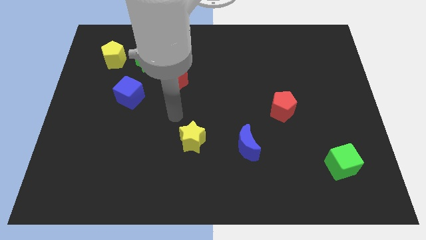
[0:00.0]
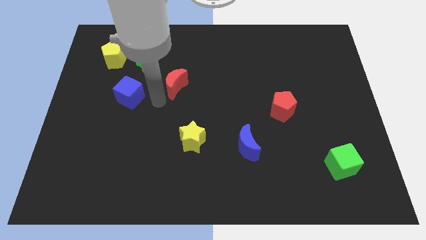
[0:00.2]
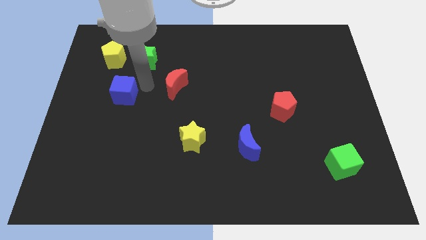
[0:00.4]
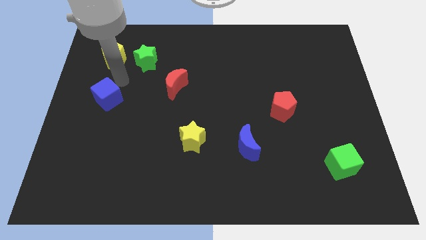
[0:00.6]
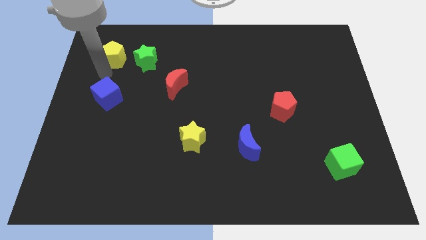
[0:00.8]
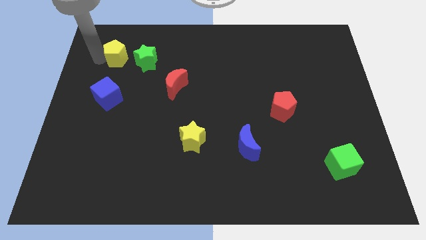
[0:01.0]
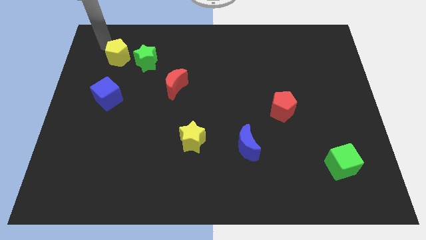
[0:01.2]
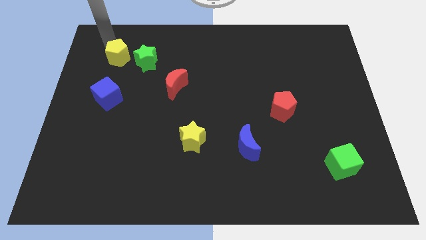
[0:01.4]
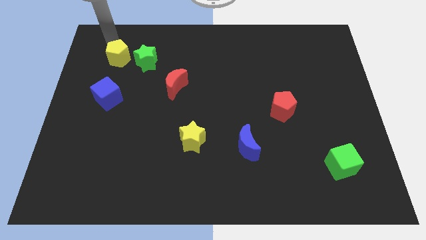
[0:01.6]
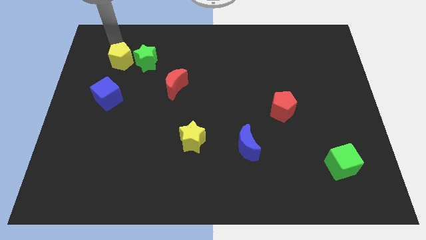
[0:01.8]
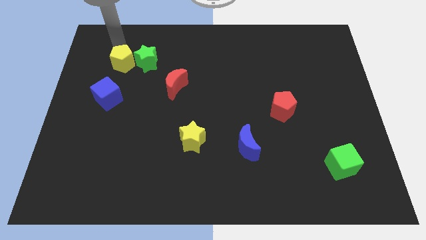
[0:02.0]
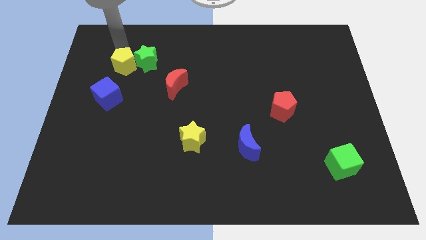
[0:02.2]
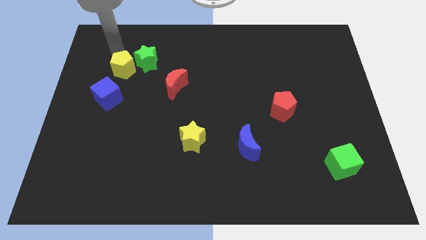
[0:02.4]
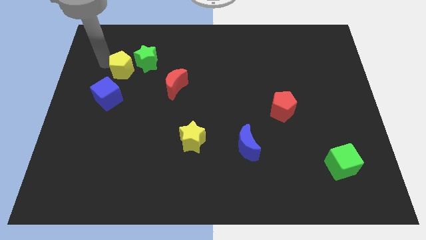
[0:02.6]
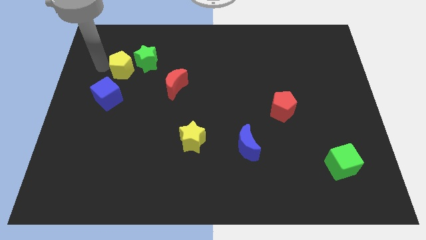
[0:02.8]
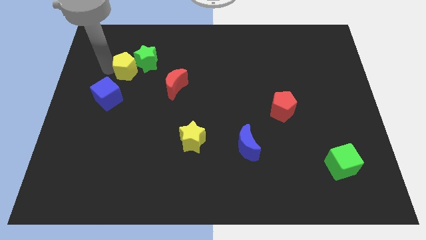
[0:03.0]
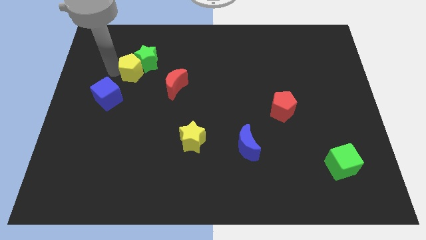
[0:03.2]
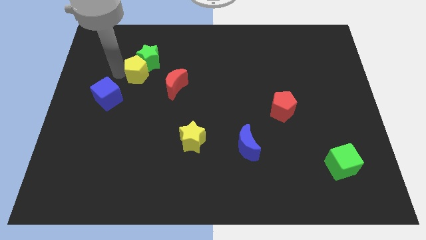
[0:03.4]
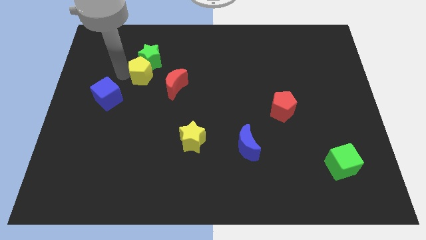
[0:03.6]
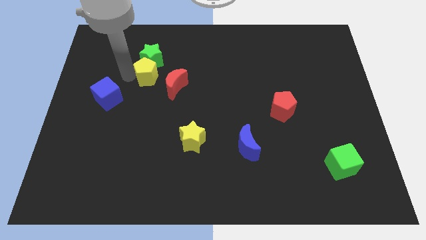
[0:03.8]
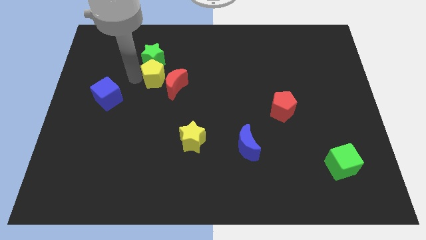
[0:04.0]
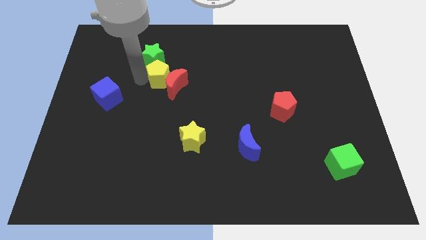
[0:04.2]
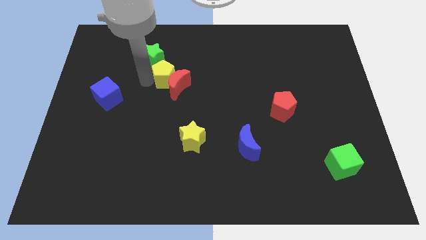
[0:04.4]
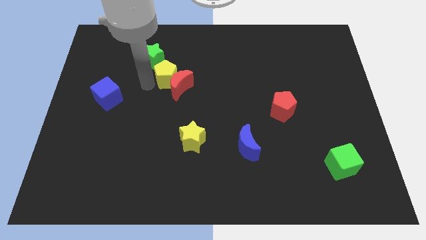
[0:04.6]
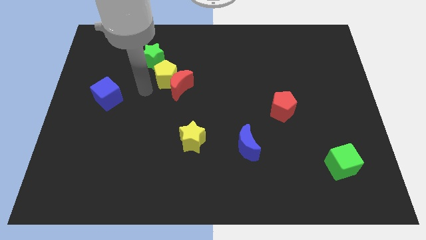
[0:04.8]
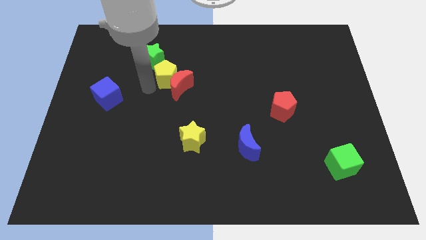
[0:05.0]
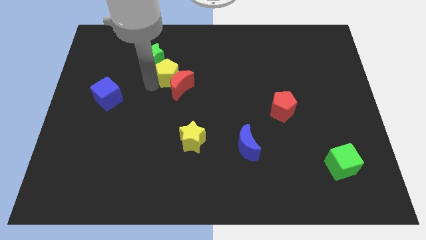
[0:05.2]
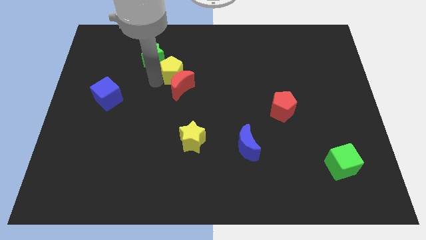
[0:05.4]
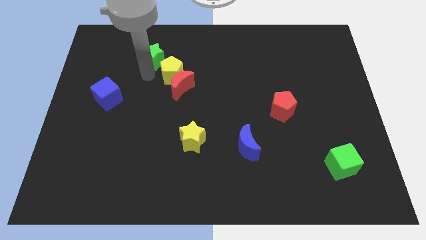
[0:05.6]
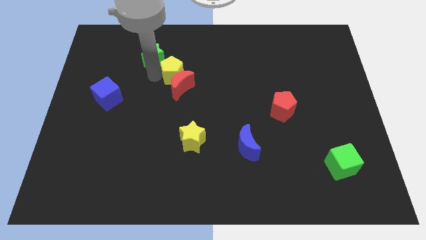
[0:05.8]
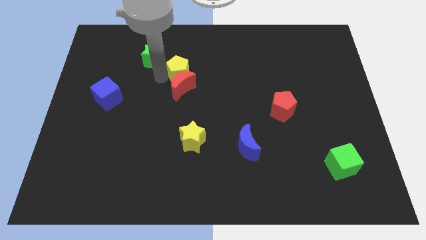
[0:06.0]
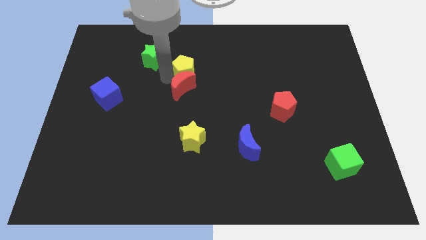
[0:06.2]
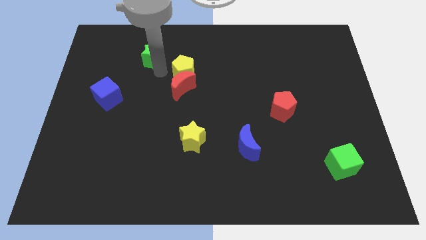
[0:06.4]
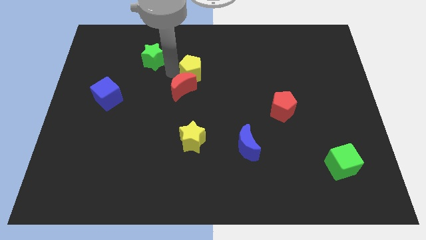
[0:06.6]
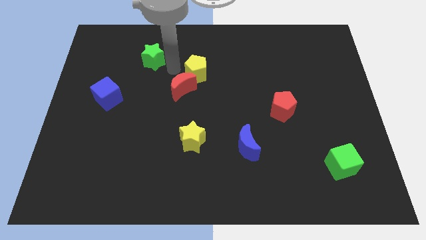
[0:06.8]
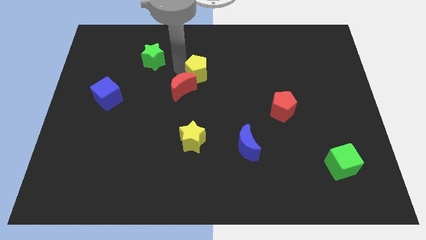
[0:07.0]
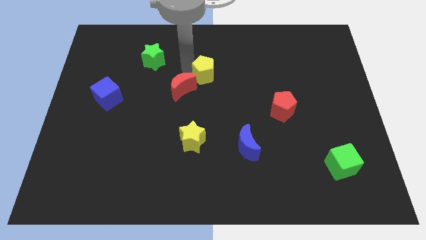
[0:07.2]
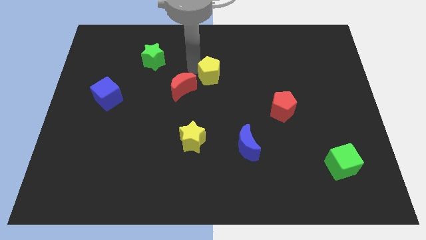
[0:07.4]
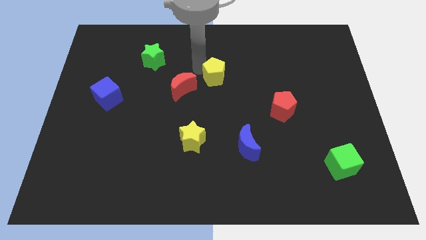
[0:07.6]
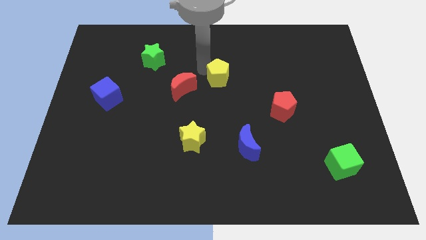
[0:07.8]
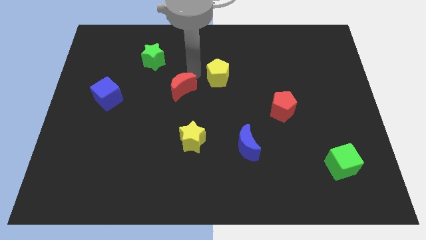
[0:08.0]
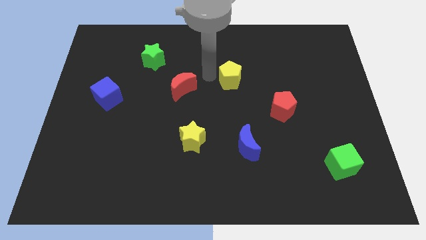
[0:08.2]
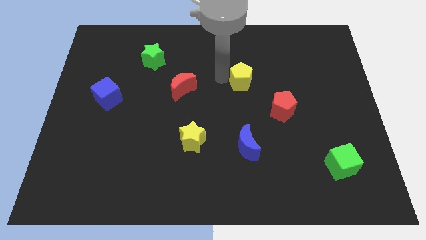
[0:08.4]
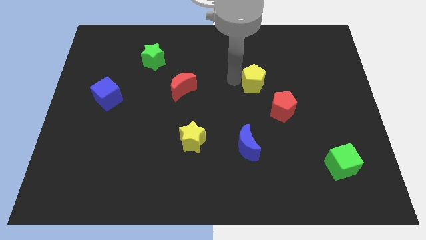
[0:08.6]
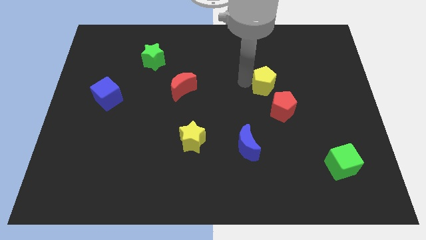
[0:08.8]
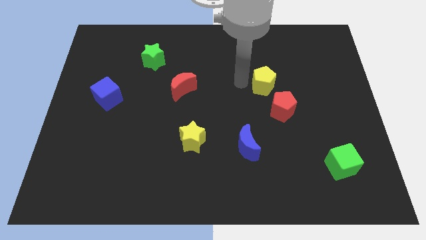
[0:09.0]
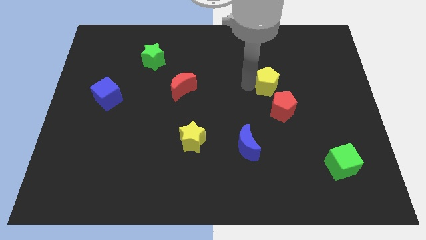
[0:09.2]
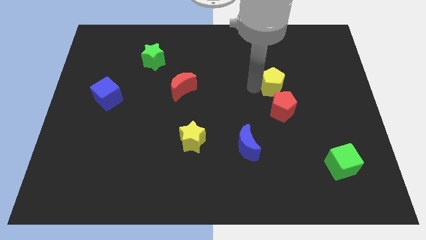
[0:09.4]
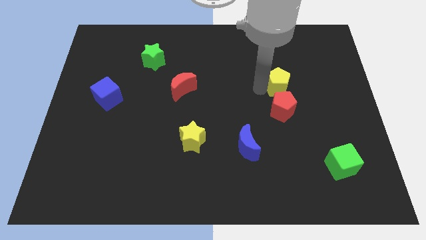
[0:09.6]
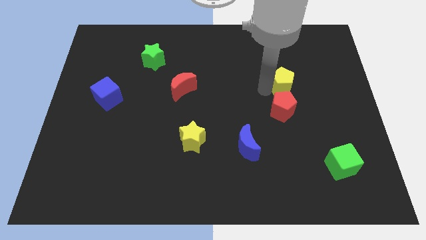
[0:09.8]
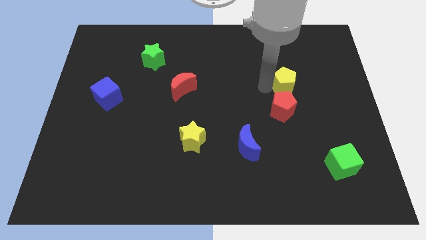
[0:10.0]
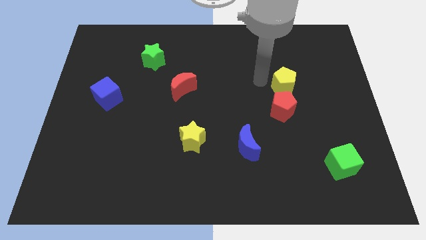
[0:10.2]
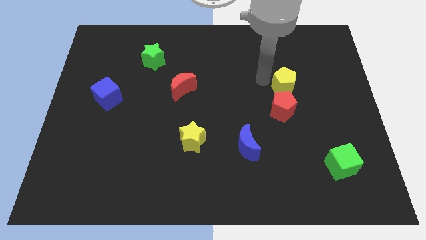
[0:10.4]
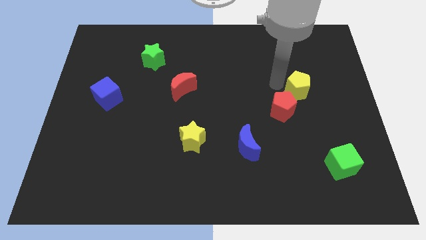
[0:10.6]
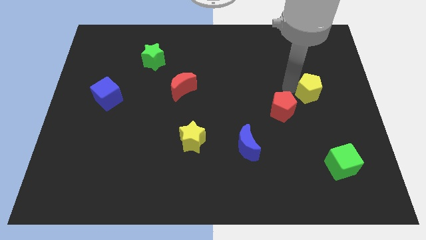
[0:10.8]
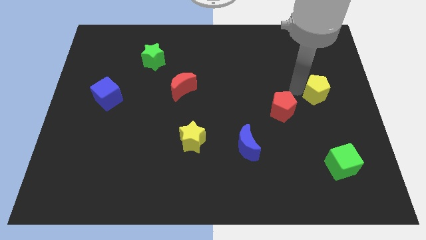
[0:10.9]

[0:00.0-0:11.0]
put the yellow pentagon to the right side

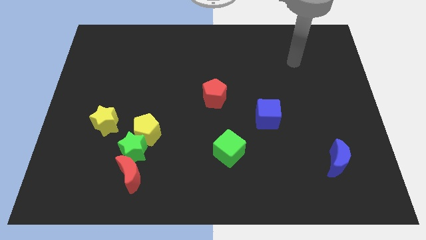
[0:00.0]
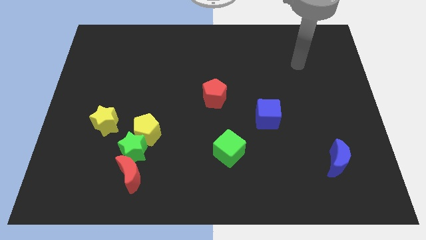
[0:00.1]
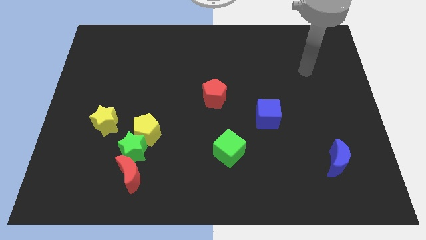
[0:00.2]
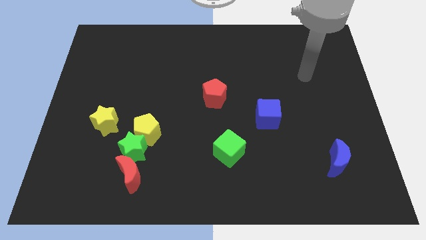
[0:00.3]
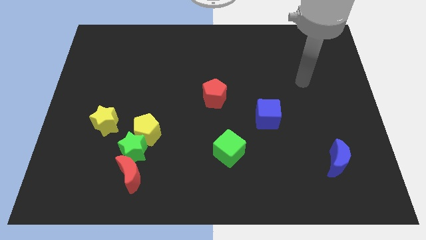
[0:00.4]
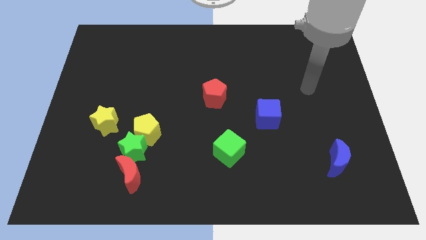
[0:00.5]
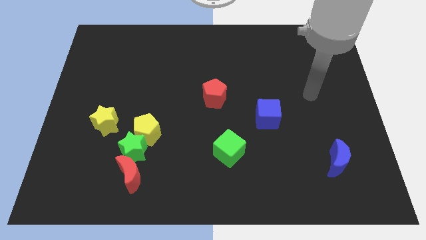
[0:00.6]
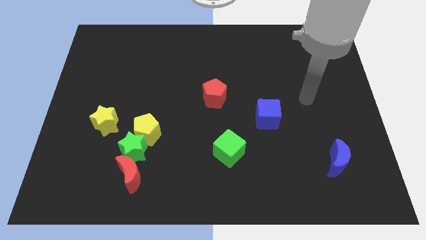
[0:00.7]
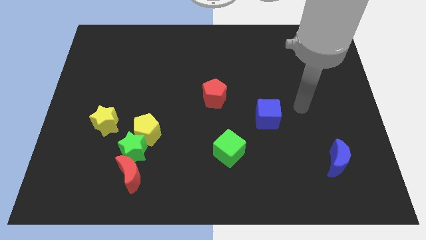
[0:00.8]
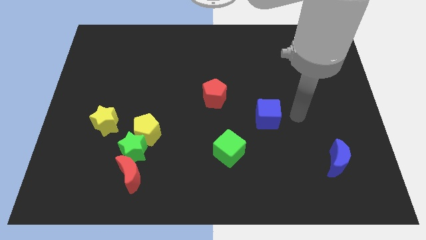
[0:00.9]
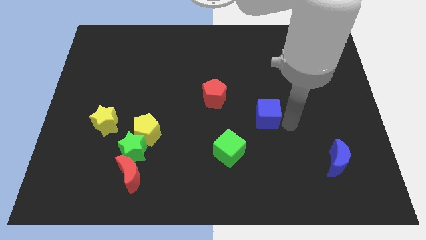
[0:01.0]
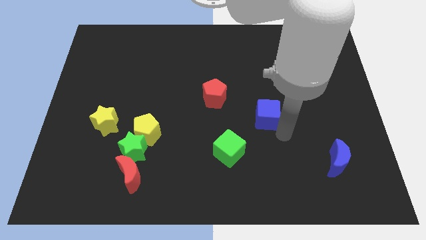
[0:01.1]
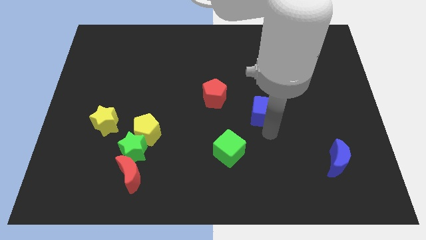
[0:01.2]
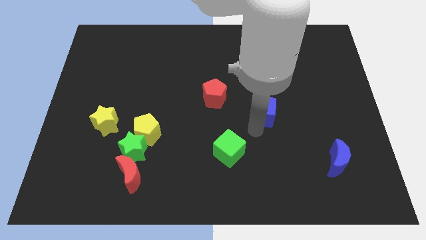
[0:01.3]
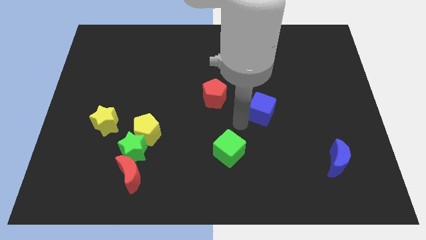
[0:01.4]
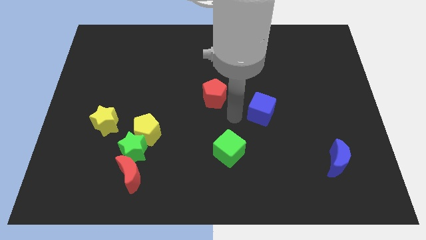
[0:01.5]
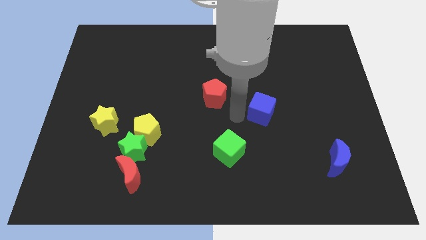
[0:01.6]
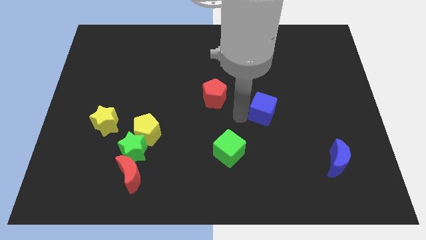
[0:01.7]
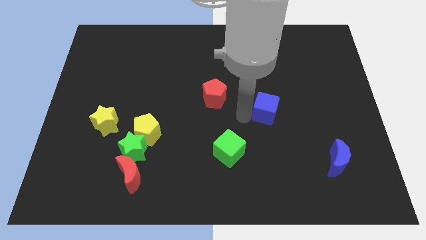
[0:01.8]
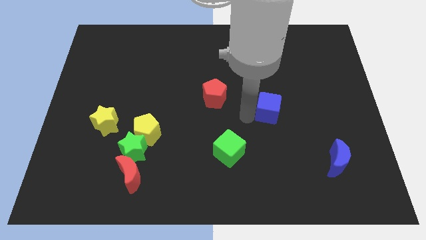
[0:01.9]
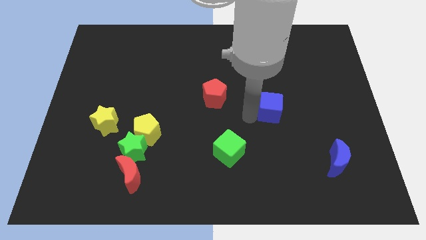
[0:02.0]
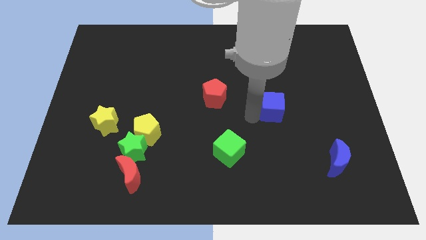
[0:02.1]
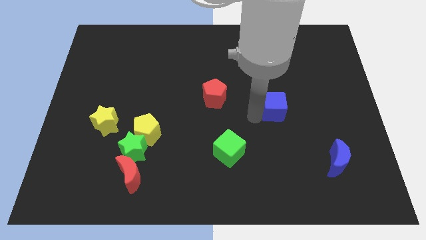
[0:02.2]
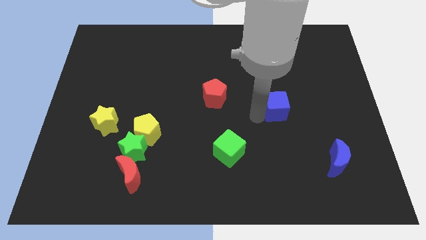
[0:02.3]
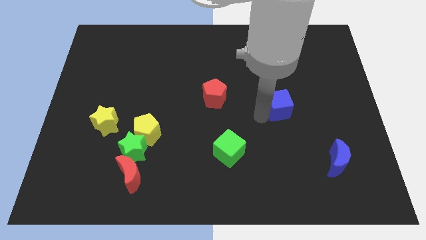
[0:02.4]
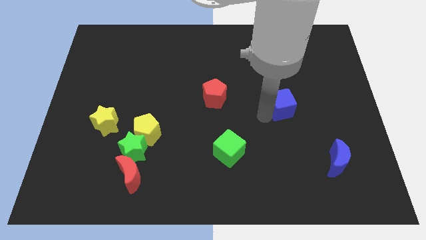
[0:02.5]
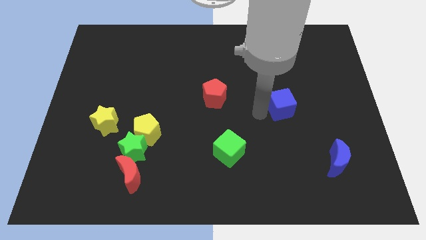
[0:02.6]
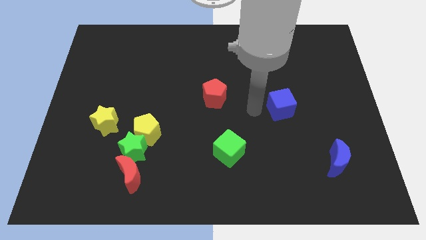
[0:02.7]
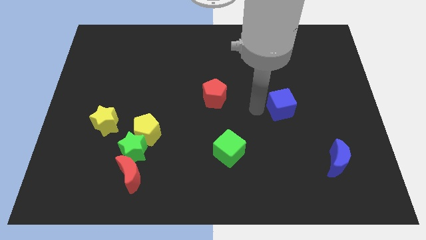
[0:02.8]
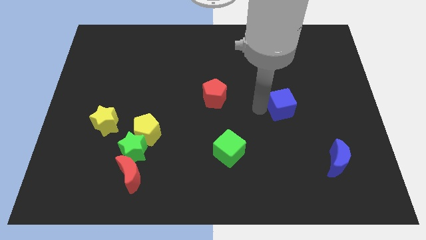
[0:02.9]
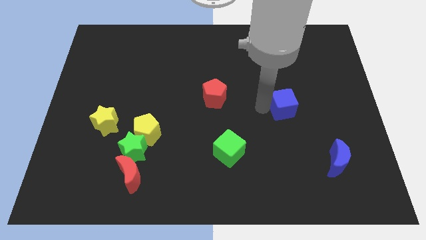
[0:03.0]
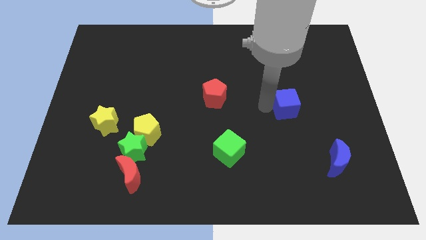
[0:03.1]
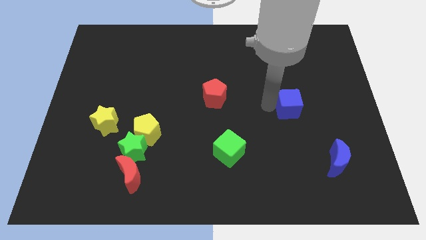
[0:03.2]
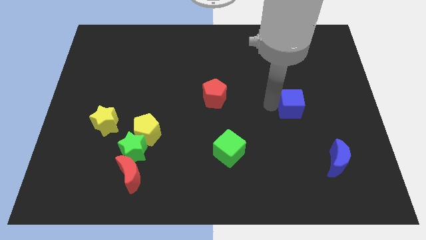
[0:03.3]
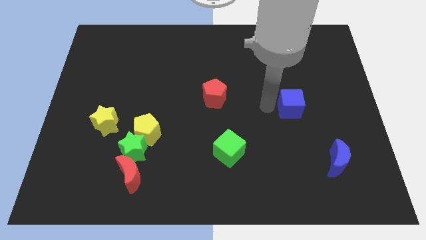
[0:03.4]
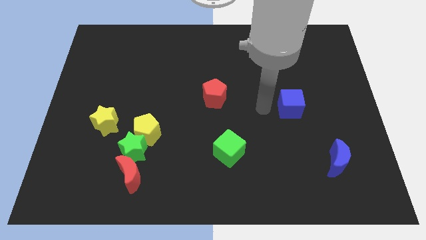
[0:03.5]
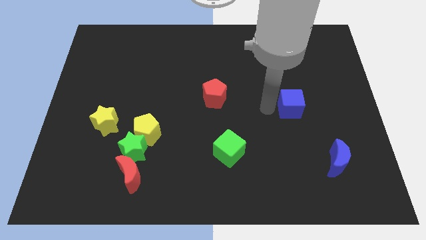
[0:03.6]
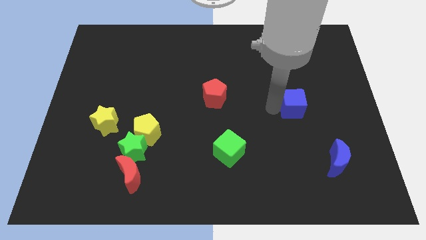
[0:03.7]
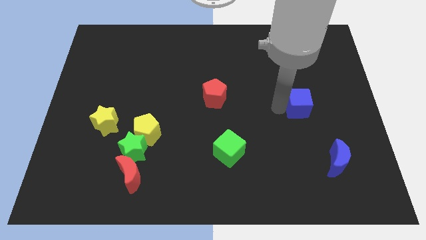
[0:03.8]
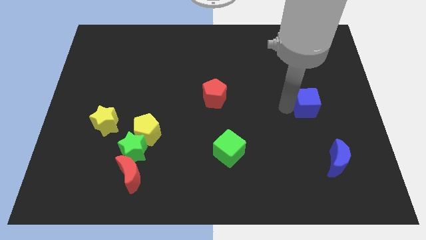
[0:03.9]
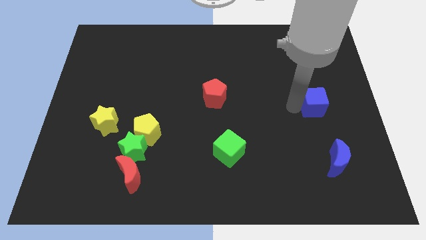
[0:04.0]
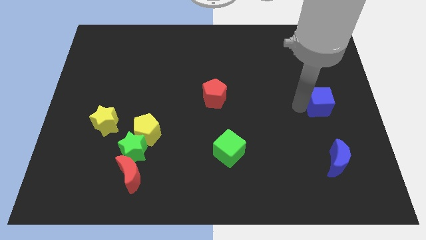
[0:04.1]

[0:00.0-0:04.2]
push the blue cube to the right side of the board
